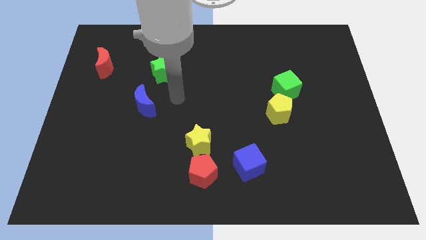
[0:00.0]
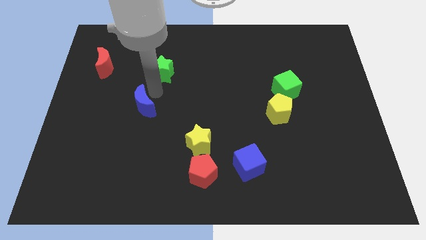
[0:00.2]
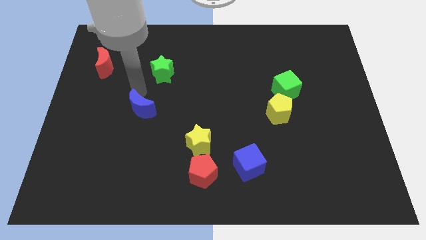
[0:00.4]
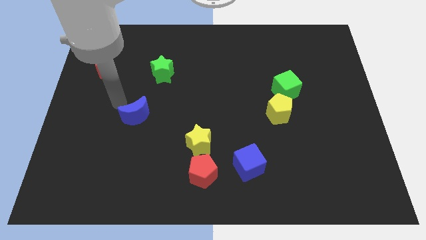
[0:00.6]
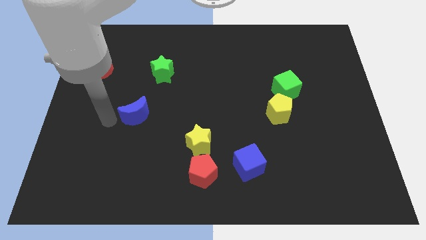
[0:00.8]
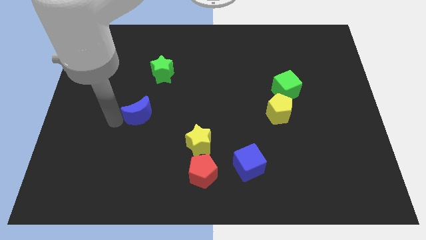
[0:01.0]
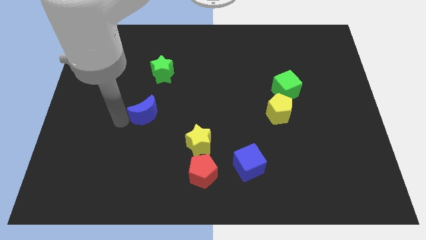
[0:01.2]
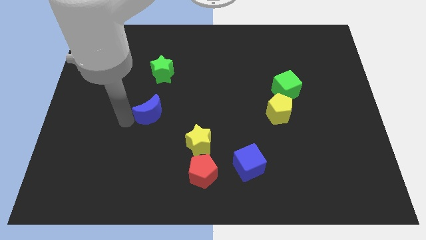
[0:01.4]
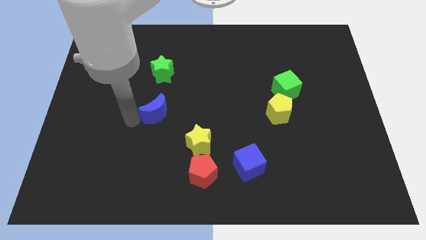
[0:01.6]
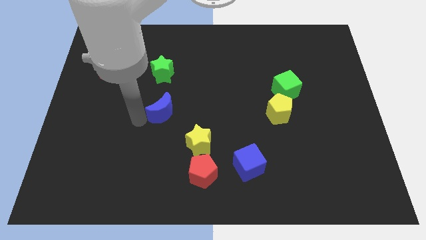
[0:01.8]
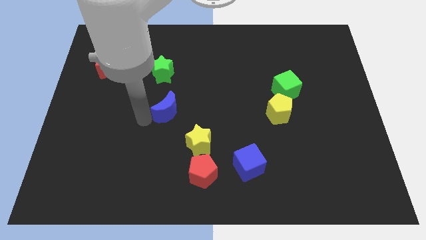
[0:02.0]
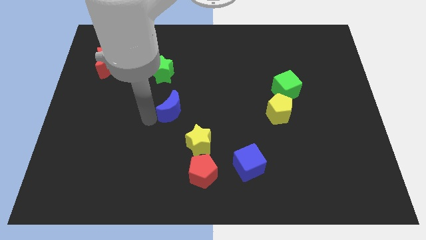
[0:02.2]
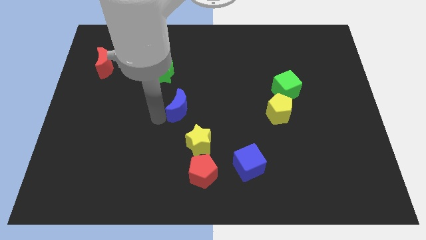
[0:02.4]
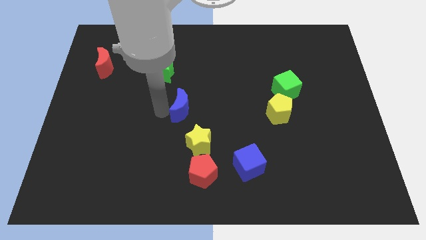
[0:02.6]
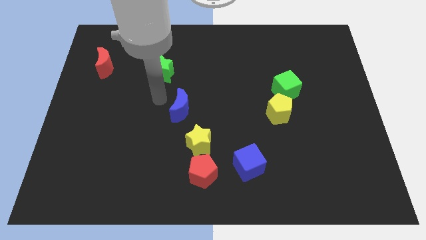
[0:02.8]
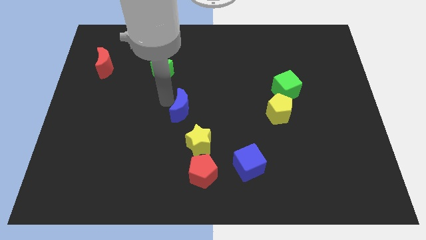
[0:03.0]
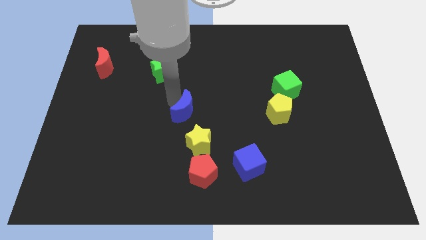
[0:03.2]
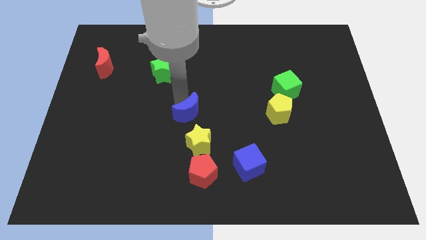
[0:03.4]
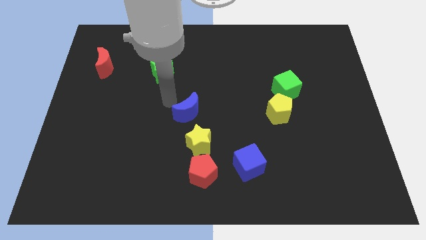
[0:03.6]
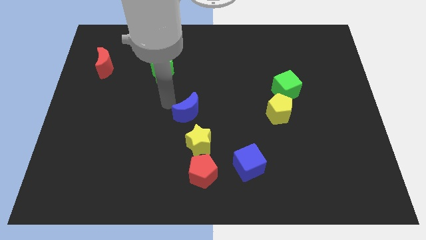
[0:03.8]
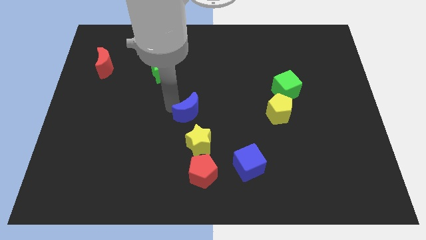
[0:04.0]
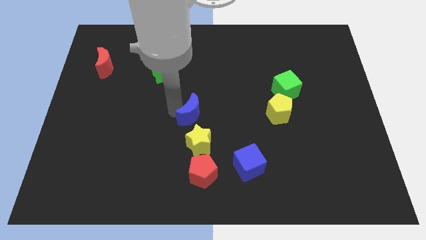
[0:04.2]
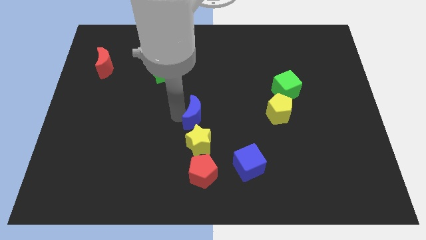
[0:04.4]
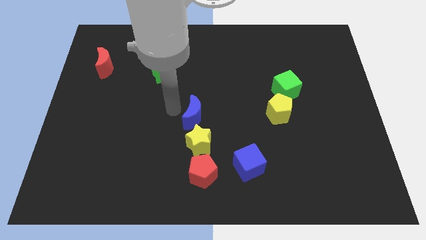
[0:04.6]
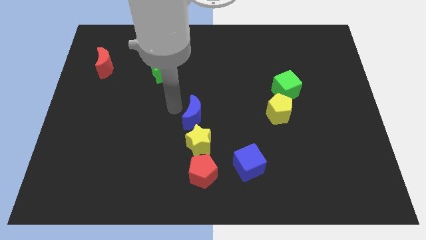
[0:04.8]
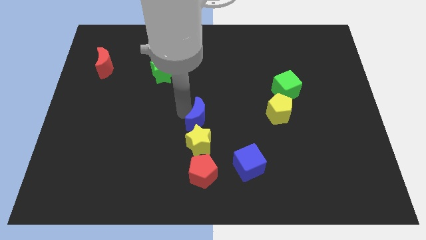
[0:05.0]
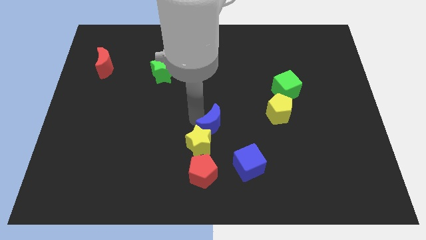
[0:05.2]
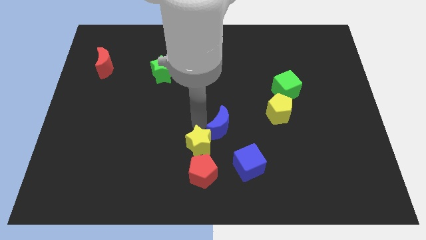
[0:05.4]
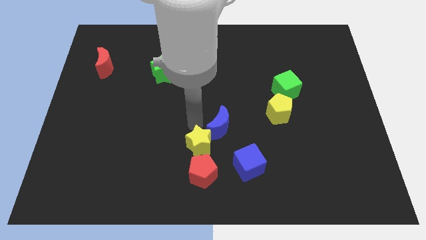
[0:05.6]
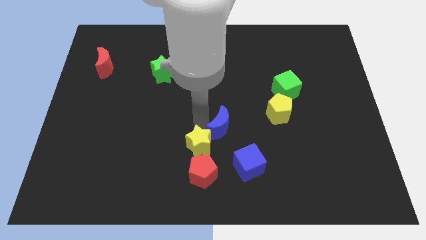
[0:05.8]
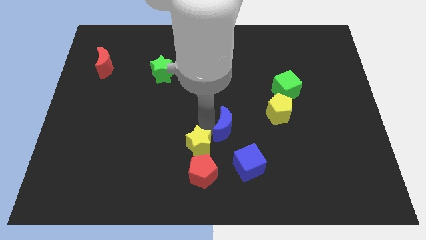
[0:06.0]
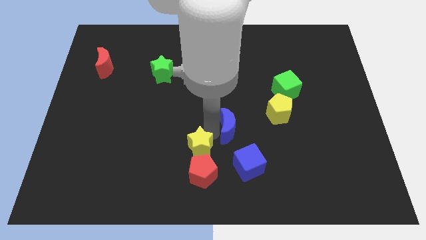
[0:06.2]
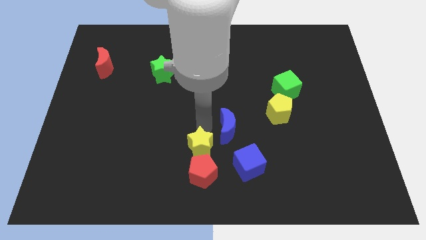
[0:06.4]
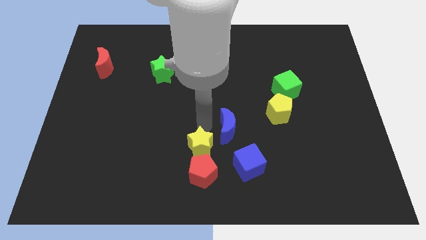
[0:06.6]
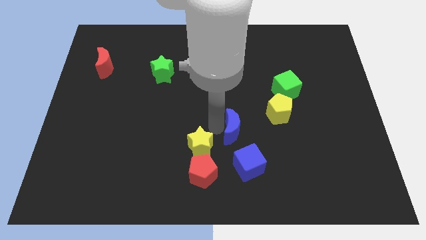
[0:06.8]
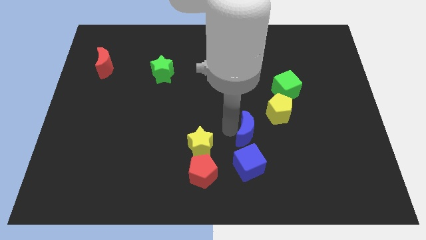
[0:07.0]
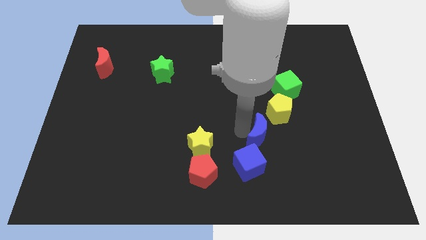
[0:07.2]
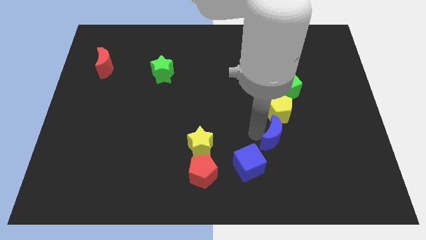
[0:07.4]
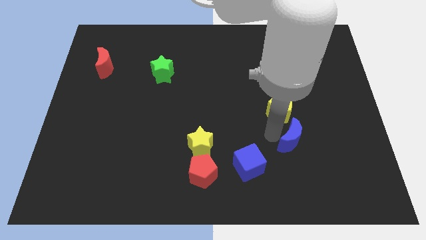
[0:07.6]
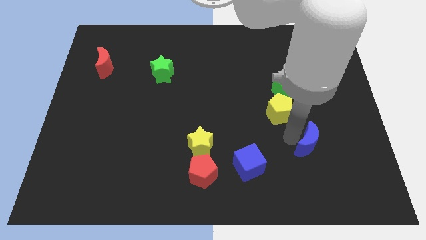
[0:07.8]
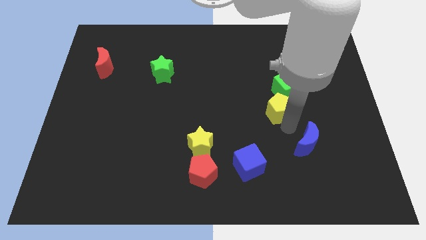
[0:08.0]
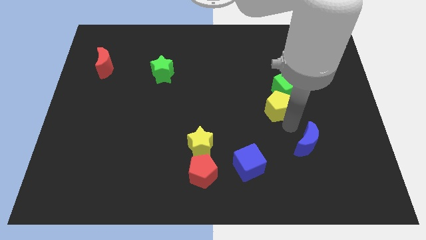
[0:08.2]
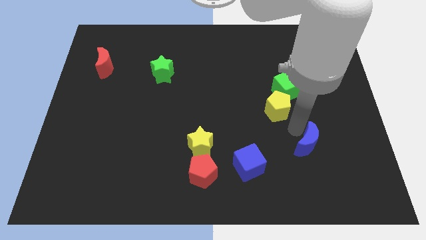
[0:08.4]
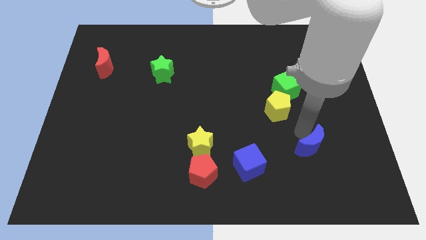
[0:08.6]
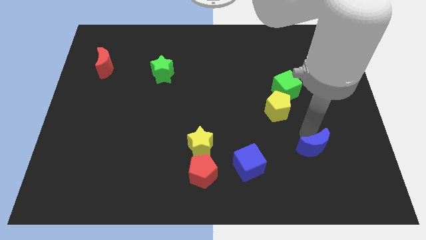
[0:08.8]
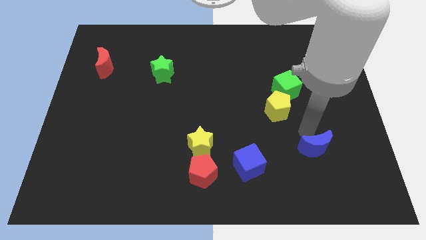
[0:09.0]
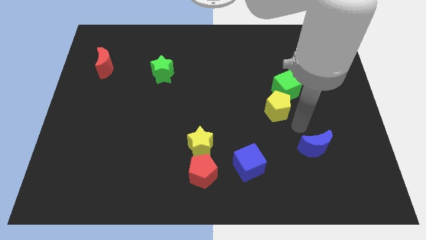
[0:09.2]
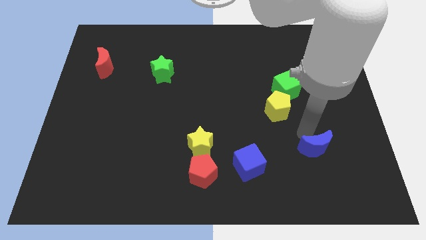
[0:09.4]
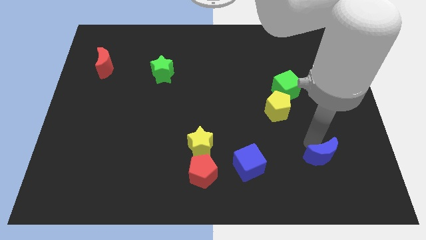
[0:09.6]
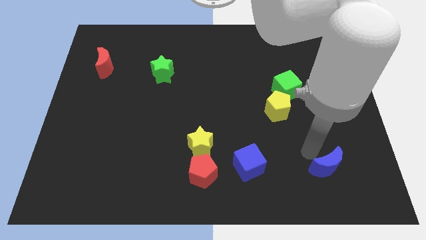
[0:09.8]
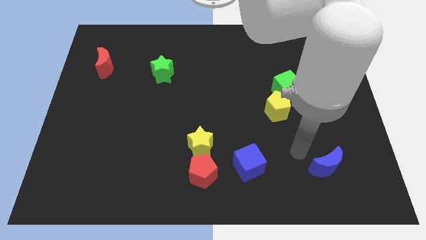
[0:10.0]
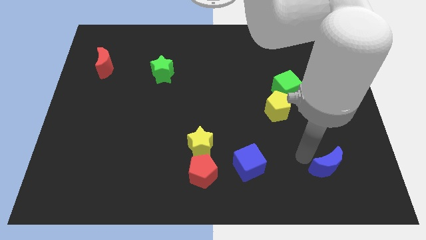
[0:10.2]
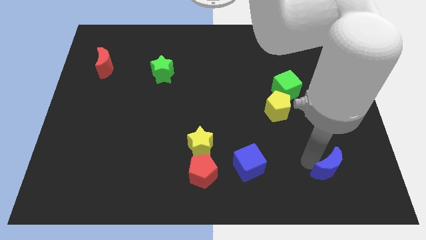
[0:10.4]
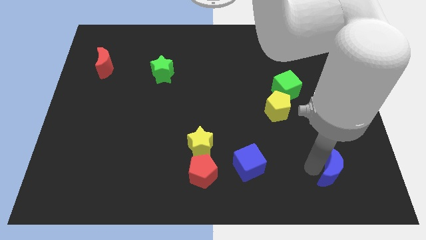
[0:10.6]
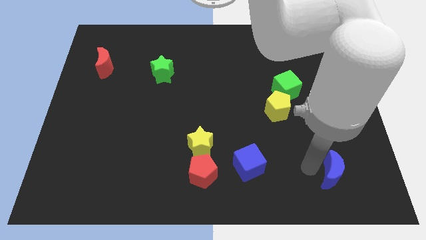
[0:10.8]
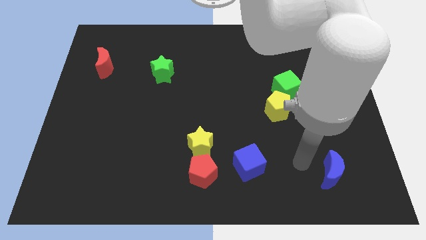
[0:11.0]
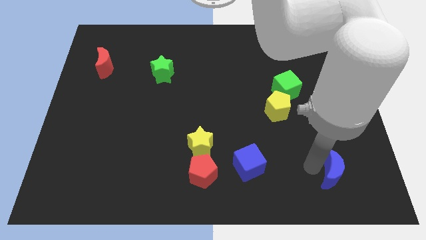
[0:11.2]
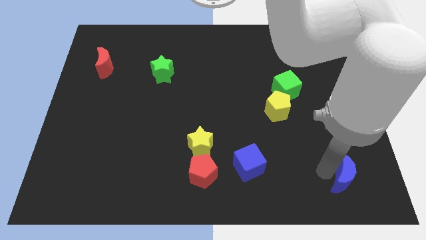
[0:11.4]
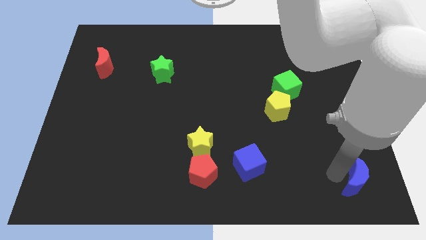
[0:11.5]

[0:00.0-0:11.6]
move the blue moon to the bottom right corner
